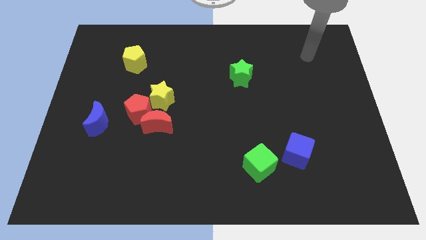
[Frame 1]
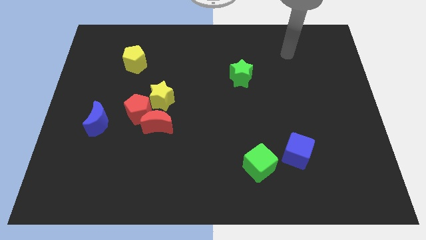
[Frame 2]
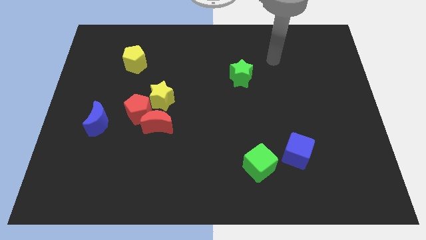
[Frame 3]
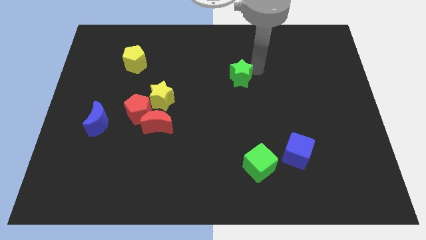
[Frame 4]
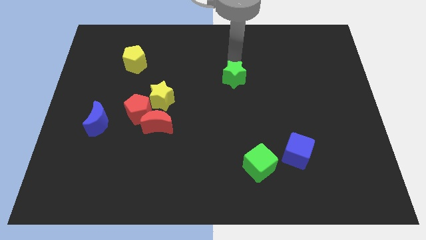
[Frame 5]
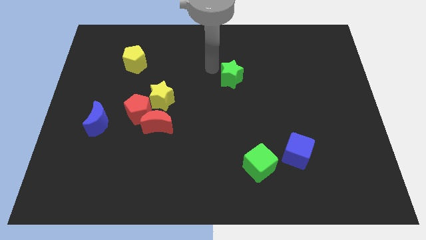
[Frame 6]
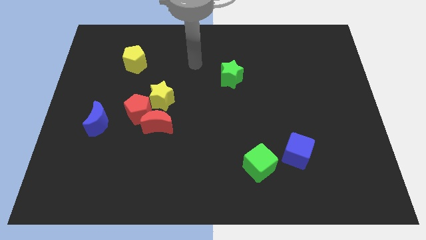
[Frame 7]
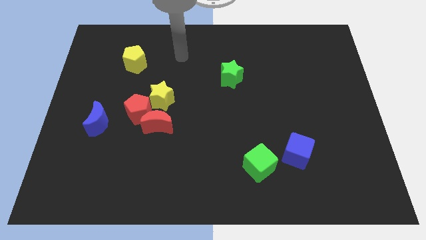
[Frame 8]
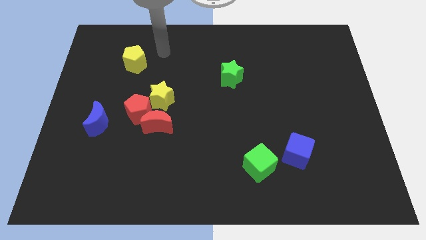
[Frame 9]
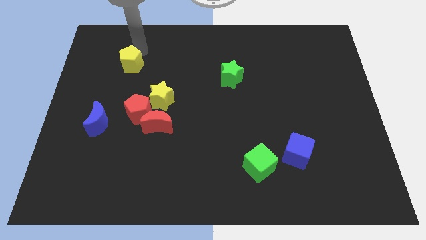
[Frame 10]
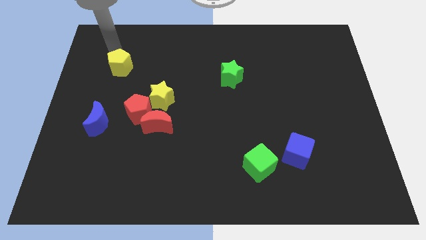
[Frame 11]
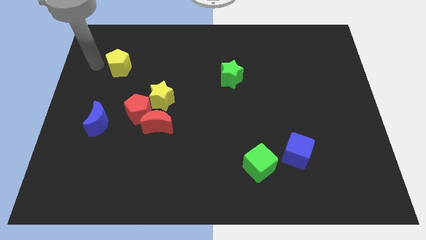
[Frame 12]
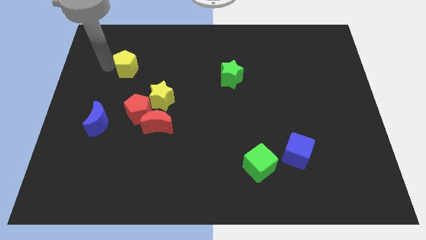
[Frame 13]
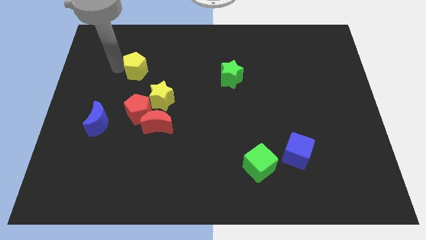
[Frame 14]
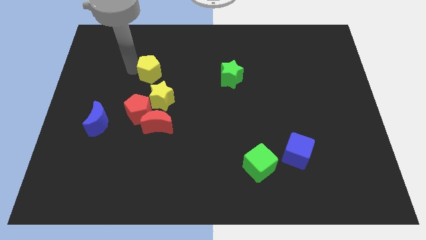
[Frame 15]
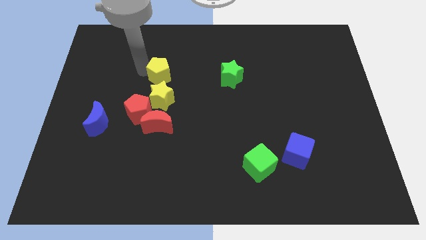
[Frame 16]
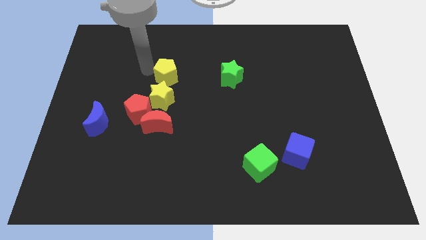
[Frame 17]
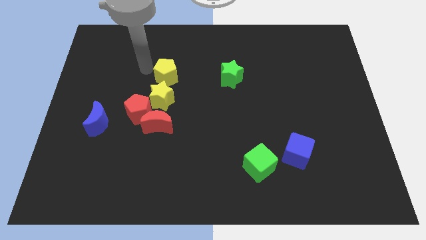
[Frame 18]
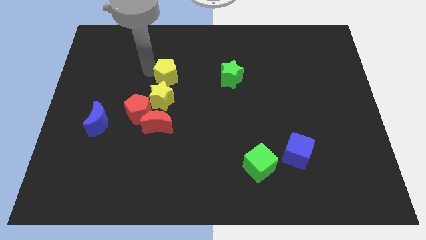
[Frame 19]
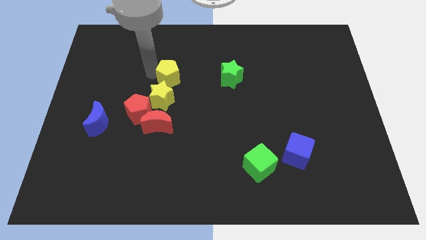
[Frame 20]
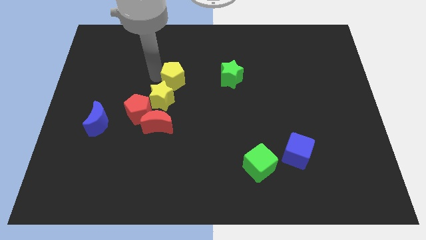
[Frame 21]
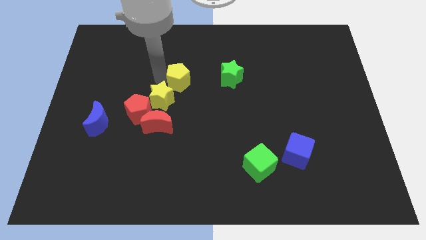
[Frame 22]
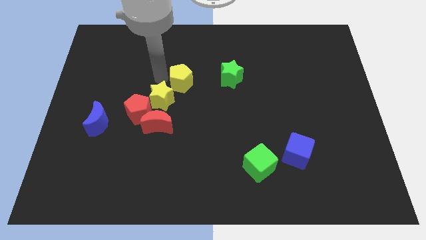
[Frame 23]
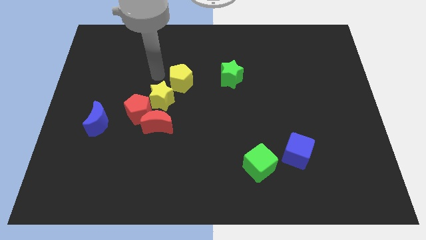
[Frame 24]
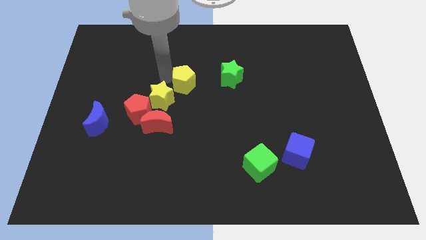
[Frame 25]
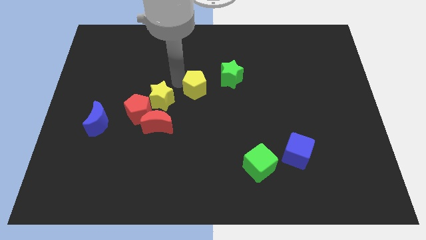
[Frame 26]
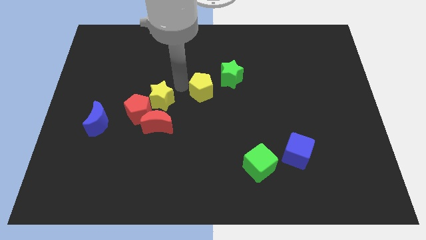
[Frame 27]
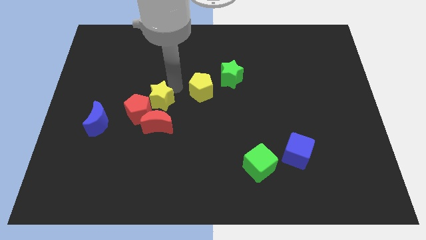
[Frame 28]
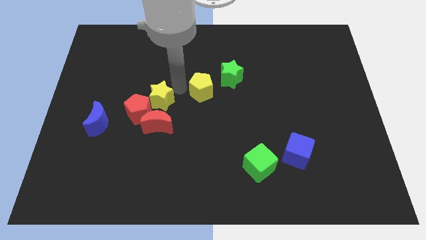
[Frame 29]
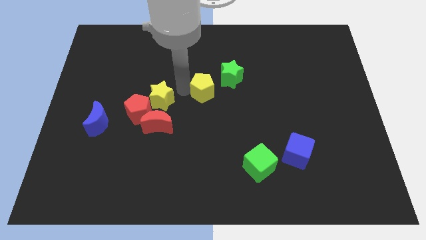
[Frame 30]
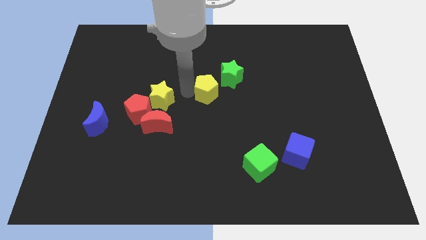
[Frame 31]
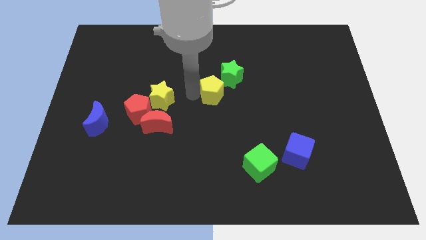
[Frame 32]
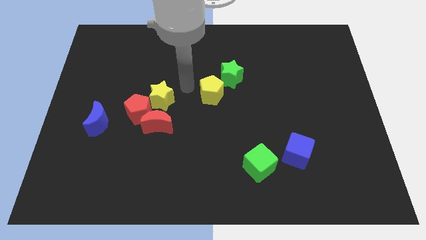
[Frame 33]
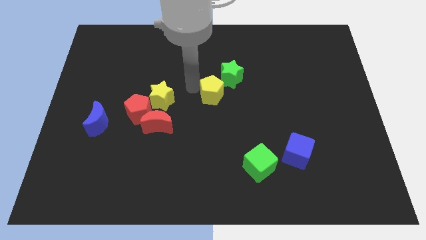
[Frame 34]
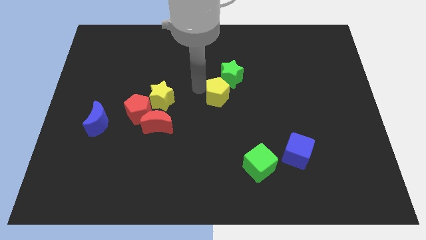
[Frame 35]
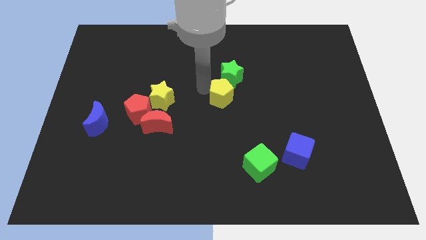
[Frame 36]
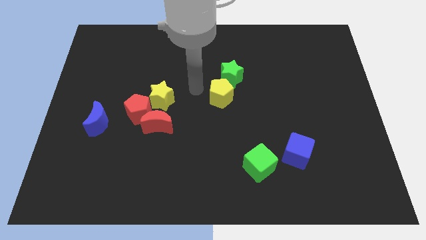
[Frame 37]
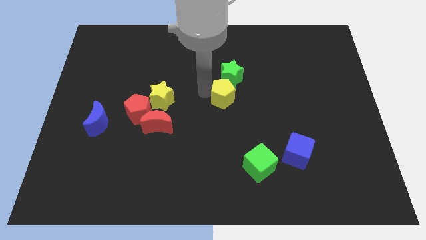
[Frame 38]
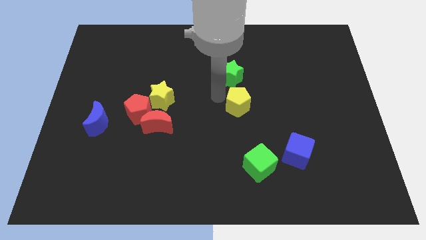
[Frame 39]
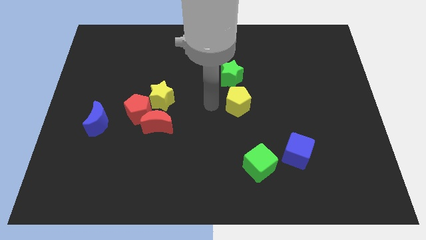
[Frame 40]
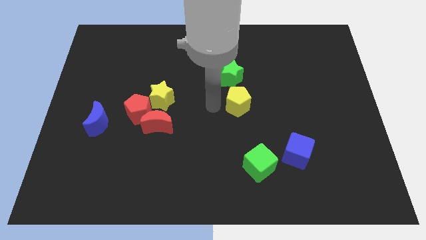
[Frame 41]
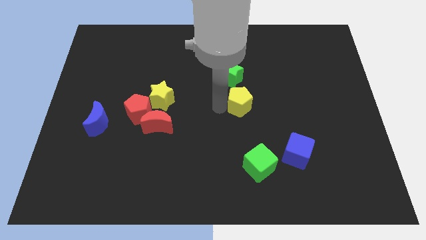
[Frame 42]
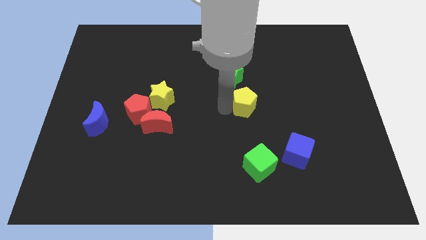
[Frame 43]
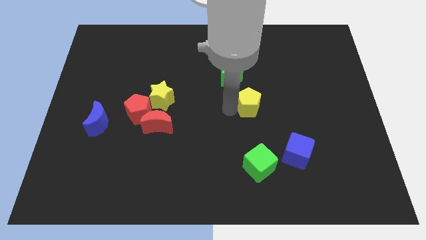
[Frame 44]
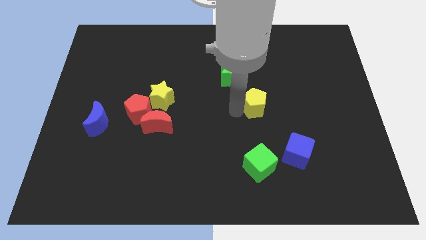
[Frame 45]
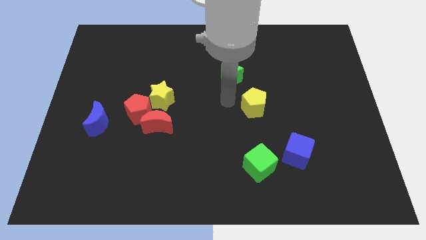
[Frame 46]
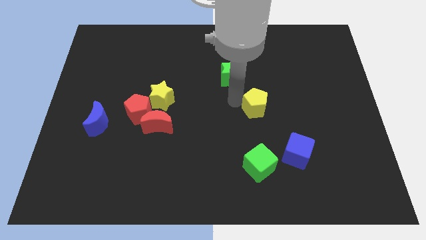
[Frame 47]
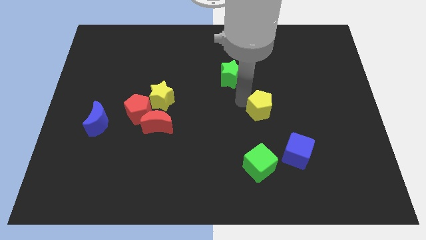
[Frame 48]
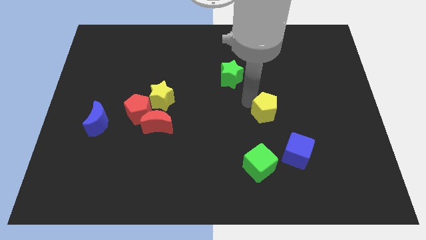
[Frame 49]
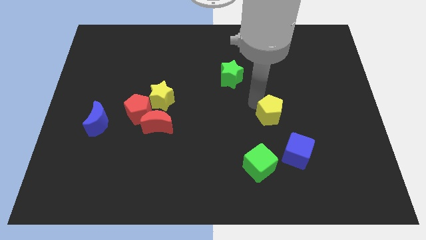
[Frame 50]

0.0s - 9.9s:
put the yellow pentagon above the blue cube

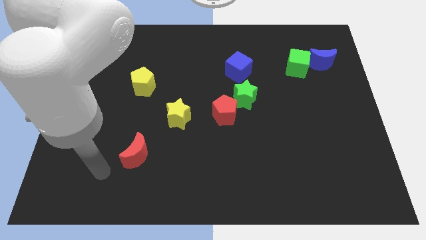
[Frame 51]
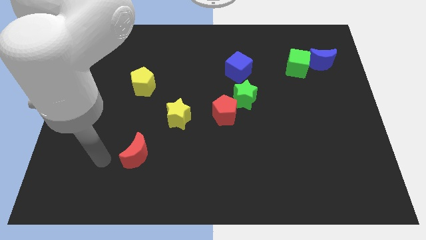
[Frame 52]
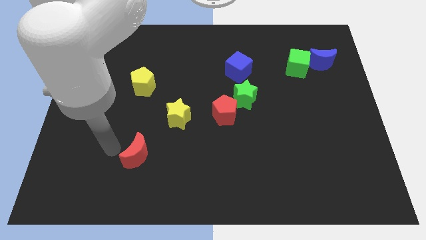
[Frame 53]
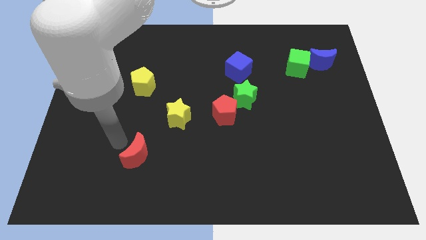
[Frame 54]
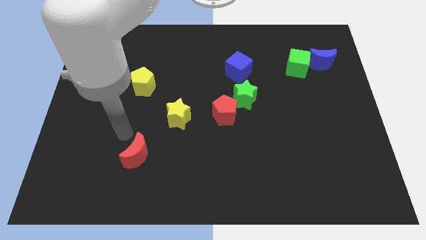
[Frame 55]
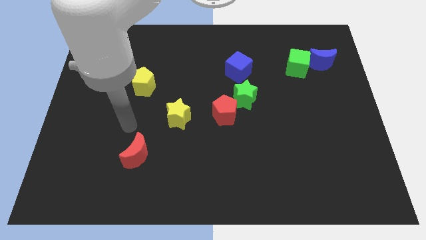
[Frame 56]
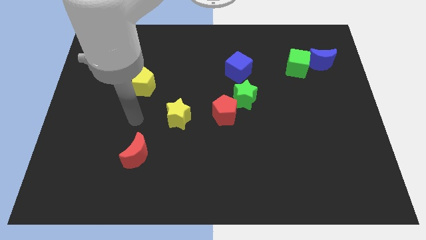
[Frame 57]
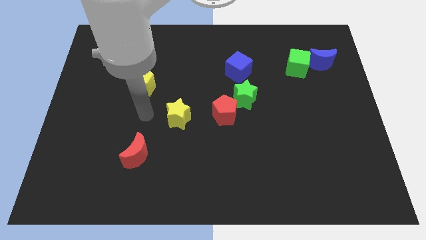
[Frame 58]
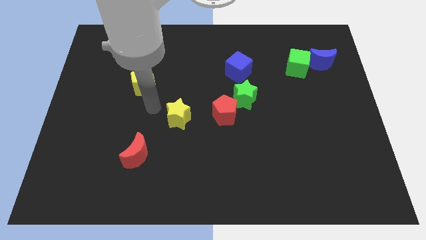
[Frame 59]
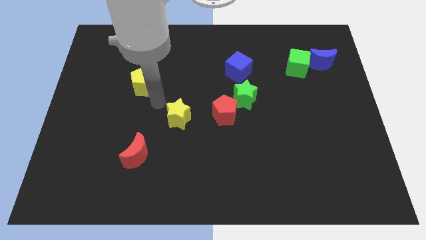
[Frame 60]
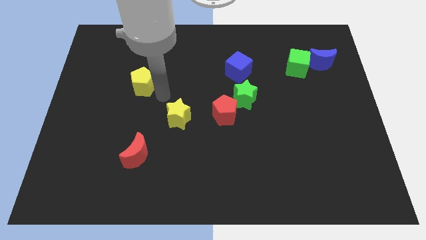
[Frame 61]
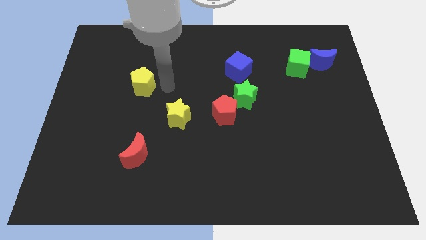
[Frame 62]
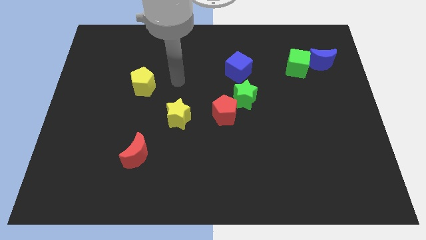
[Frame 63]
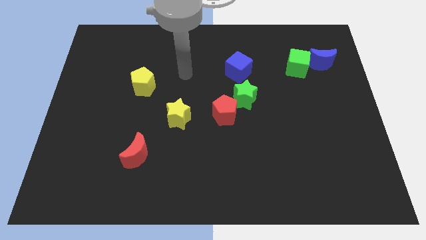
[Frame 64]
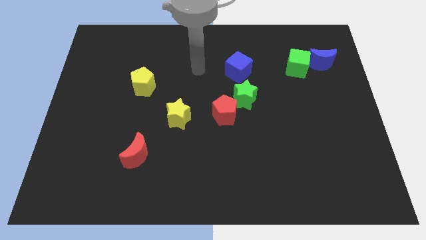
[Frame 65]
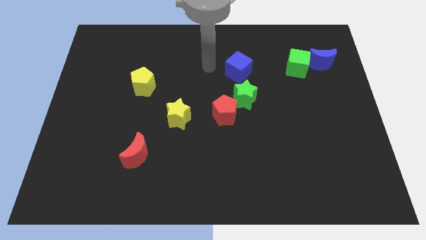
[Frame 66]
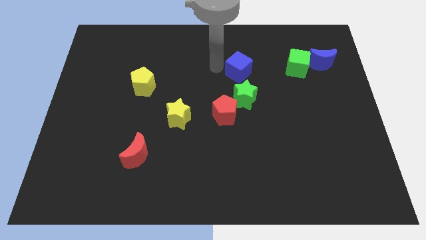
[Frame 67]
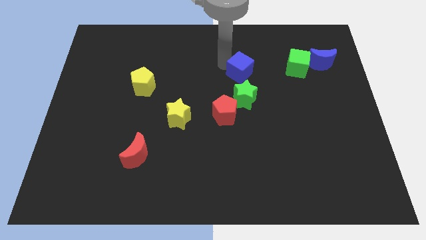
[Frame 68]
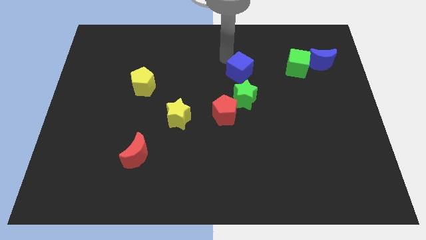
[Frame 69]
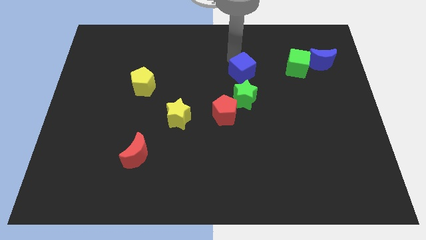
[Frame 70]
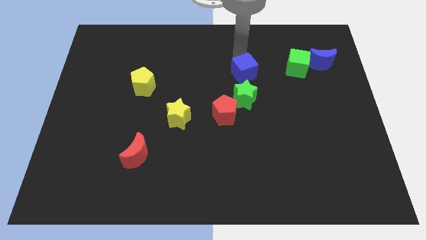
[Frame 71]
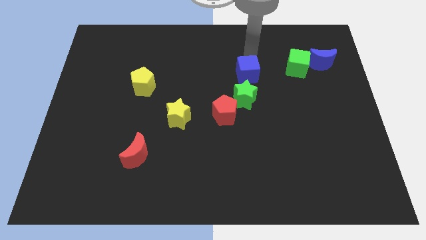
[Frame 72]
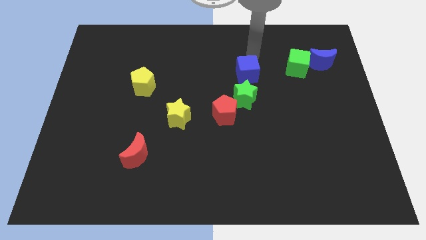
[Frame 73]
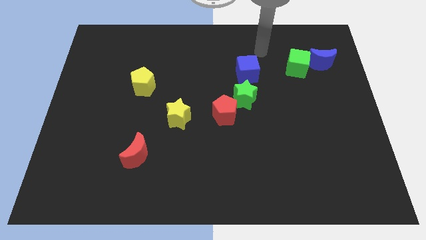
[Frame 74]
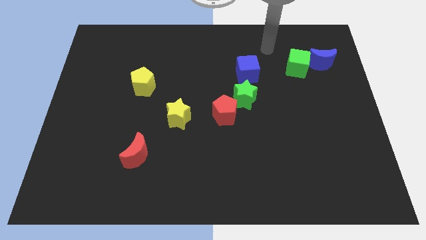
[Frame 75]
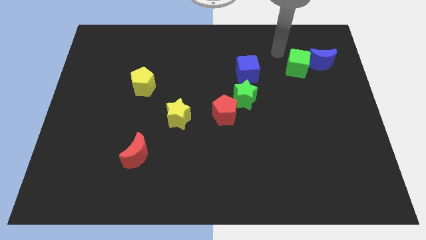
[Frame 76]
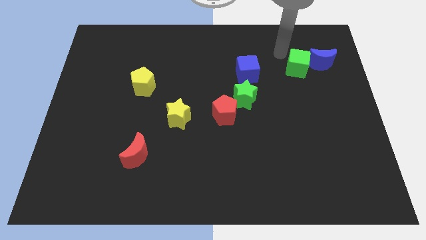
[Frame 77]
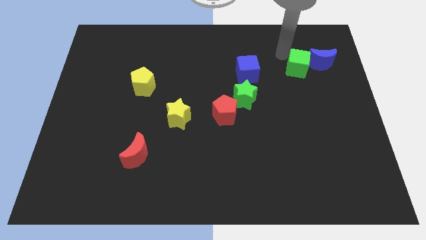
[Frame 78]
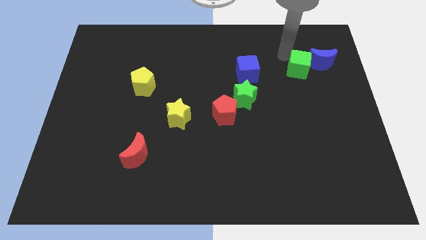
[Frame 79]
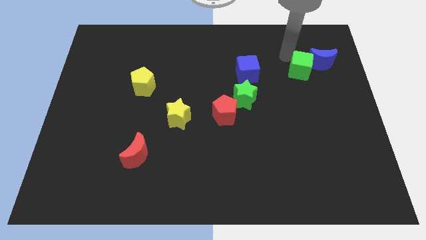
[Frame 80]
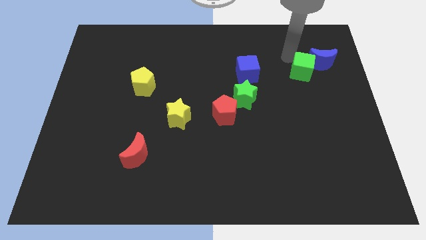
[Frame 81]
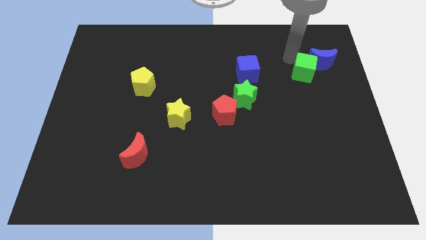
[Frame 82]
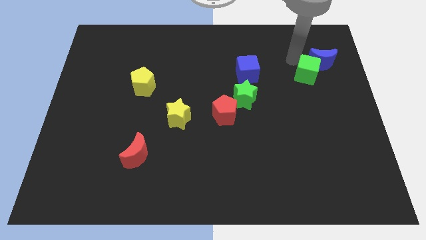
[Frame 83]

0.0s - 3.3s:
put the green cube to the bottom of the blue moon
